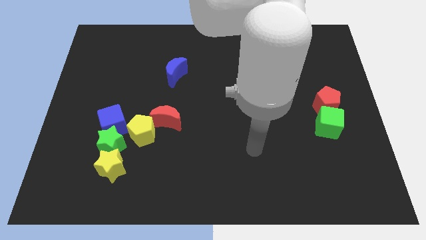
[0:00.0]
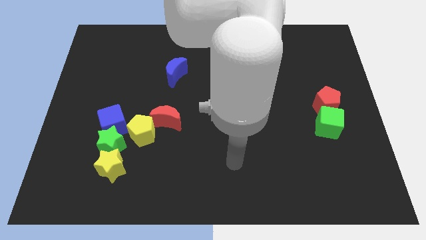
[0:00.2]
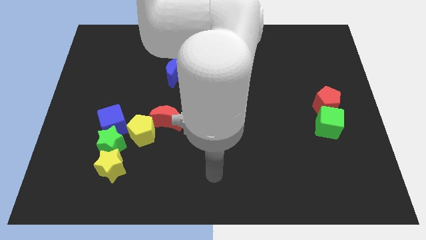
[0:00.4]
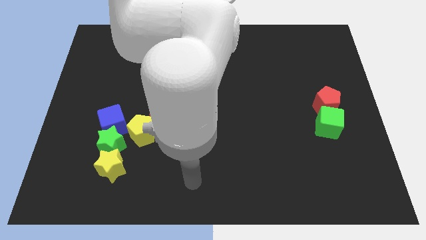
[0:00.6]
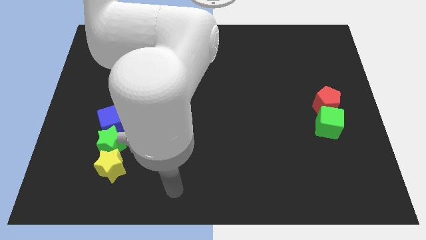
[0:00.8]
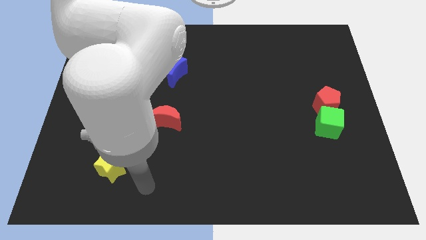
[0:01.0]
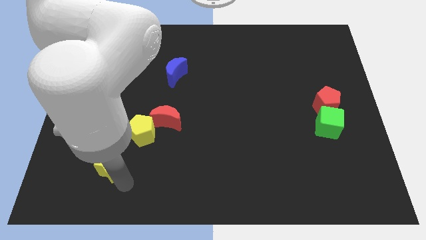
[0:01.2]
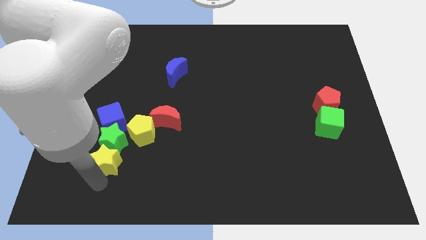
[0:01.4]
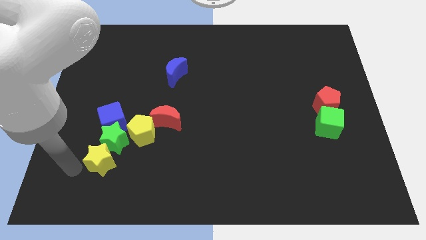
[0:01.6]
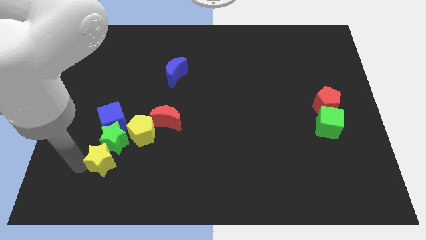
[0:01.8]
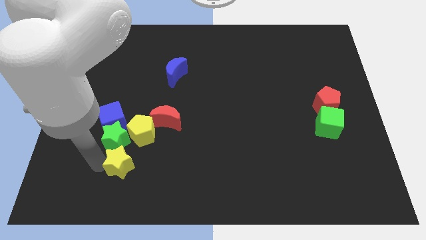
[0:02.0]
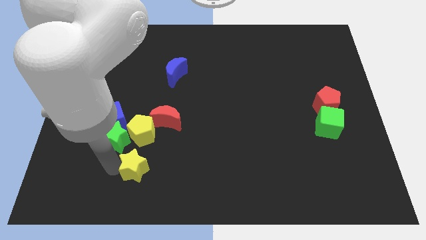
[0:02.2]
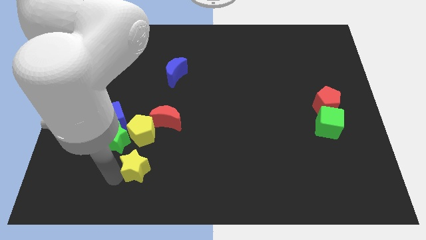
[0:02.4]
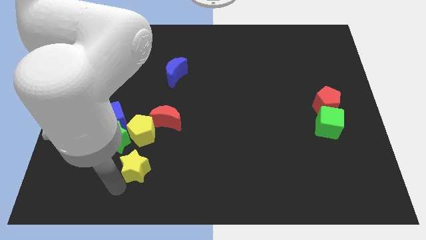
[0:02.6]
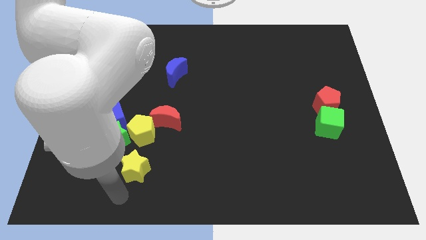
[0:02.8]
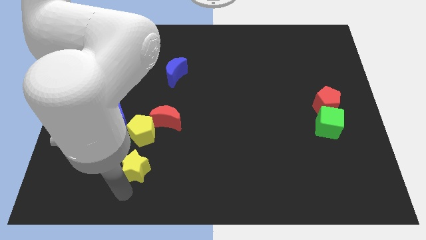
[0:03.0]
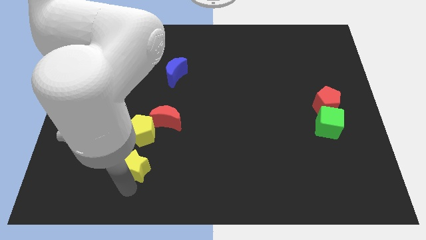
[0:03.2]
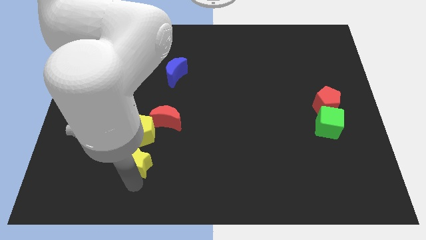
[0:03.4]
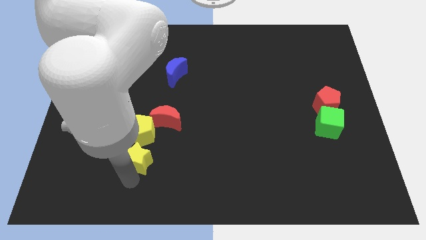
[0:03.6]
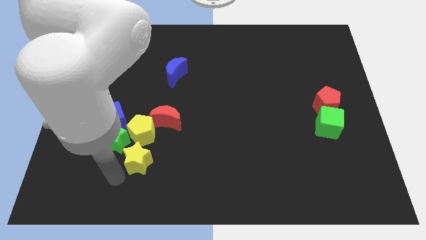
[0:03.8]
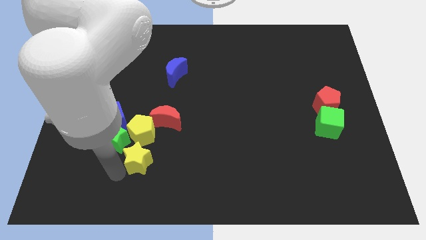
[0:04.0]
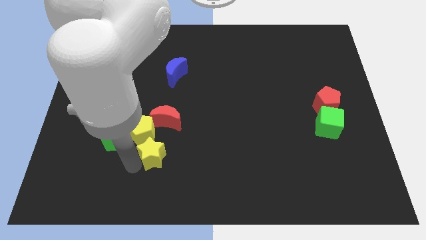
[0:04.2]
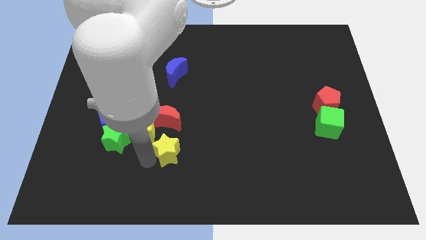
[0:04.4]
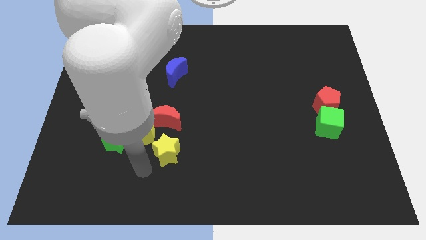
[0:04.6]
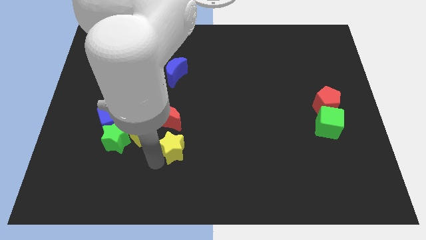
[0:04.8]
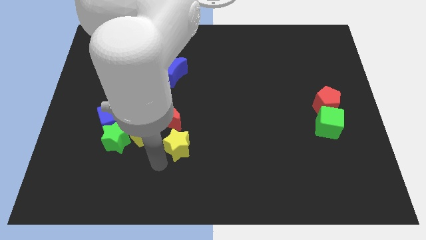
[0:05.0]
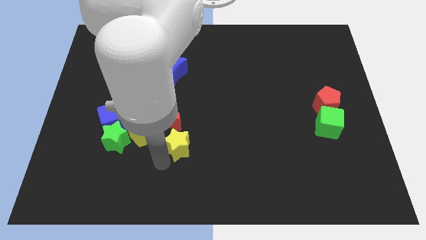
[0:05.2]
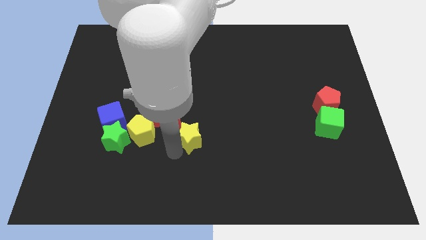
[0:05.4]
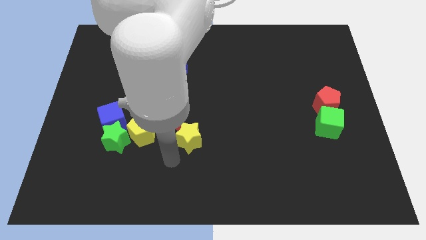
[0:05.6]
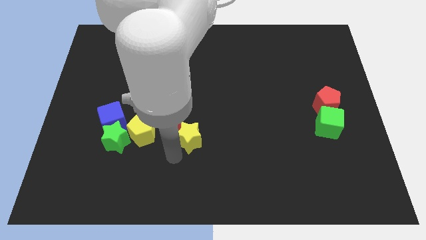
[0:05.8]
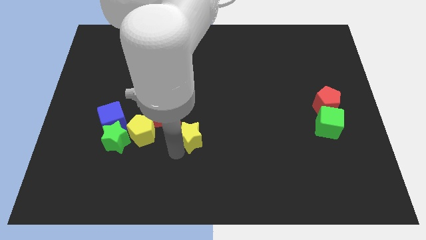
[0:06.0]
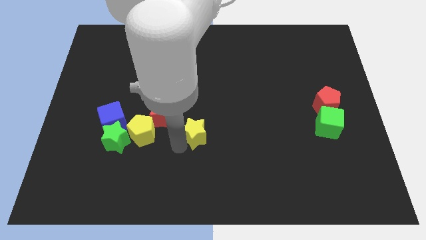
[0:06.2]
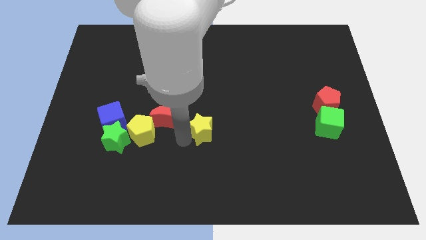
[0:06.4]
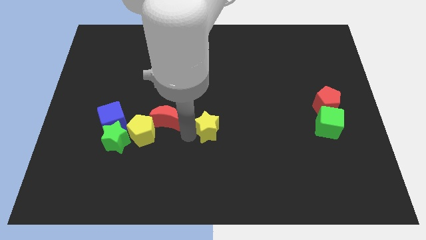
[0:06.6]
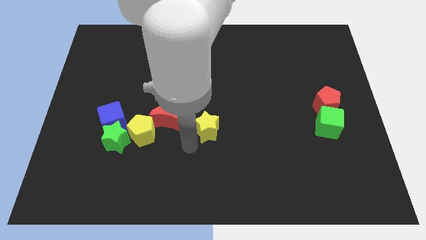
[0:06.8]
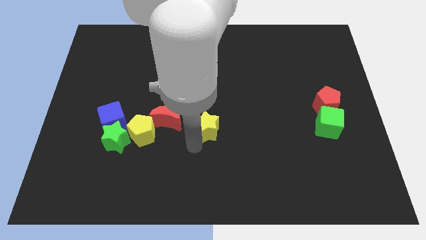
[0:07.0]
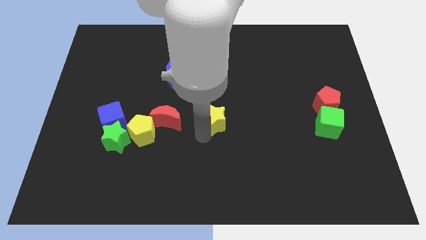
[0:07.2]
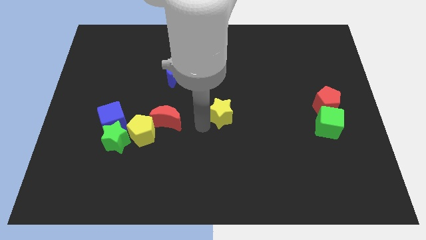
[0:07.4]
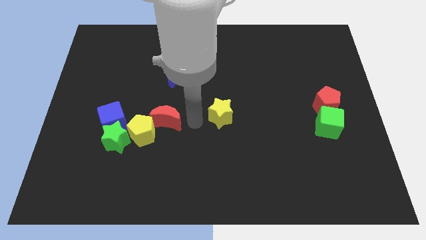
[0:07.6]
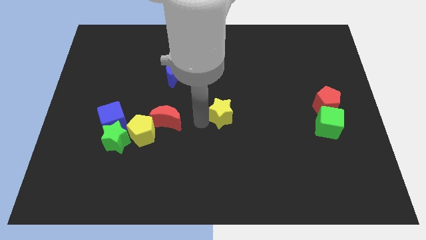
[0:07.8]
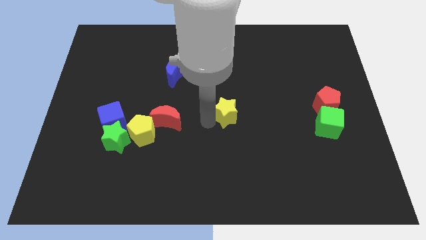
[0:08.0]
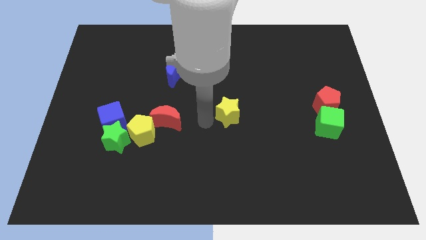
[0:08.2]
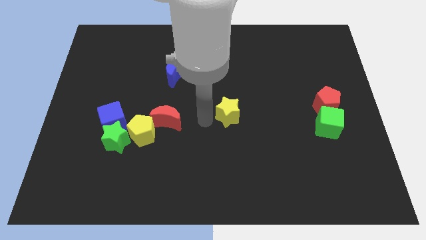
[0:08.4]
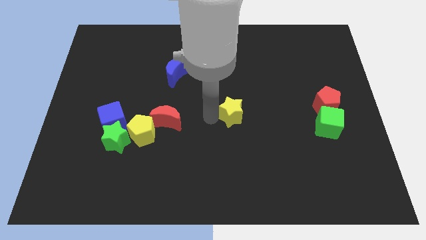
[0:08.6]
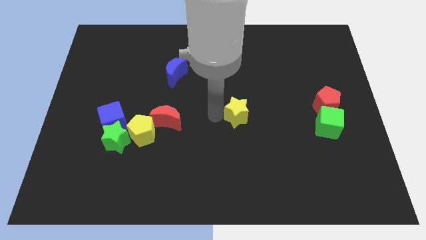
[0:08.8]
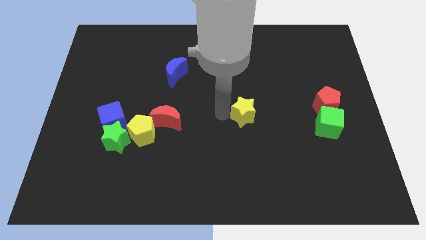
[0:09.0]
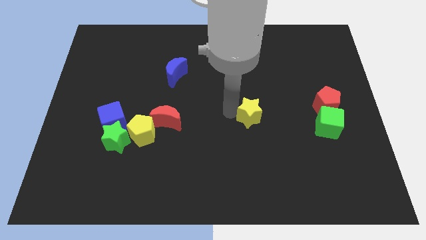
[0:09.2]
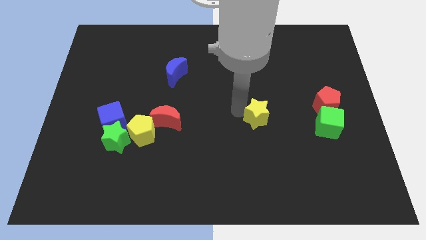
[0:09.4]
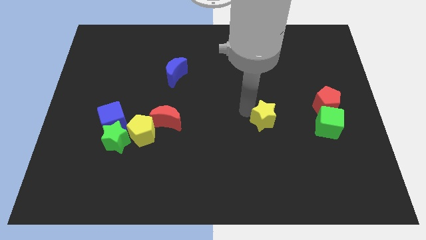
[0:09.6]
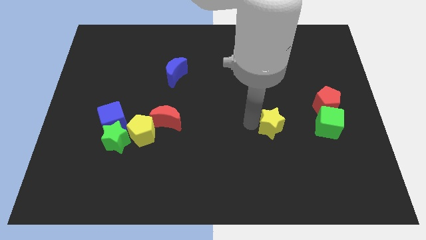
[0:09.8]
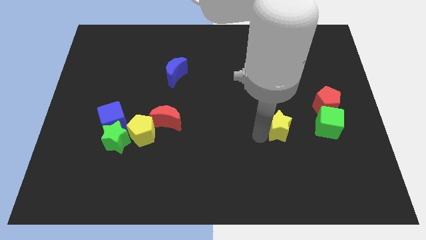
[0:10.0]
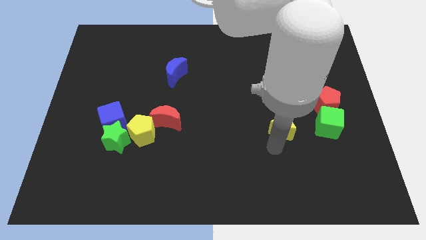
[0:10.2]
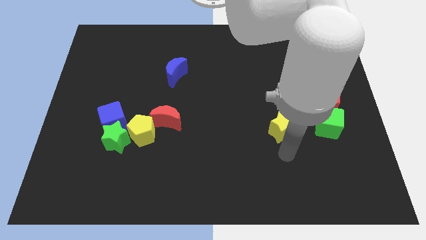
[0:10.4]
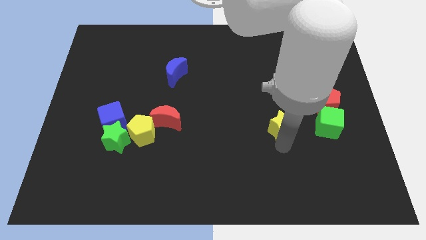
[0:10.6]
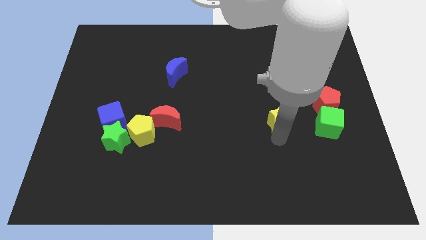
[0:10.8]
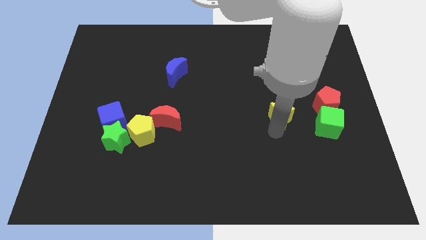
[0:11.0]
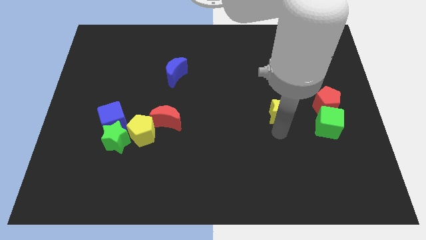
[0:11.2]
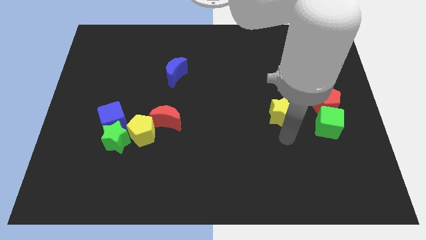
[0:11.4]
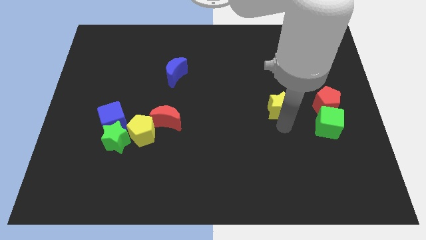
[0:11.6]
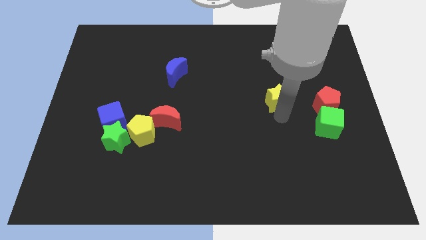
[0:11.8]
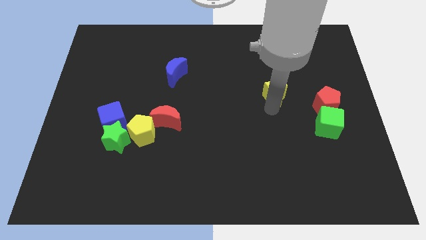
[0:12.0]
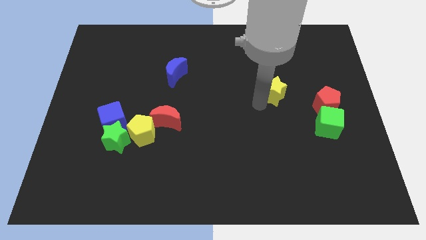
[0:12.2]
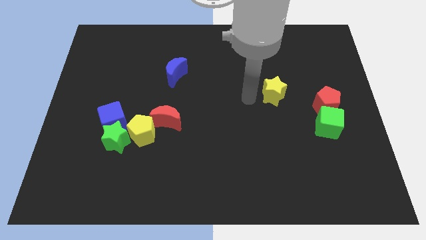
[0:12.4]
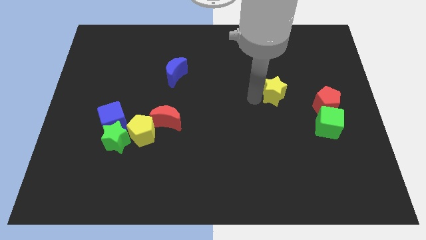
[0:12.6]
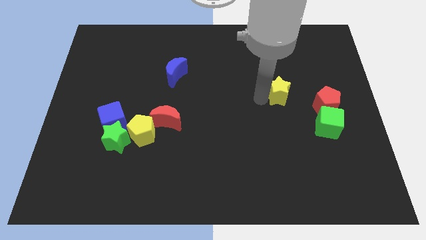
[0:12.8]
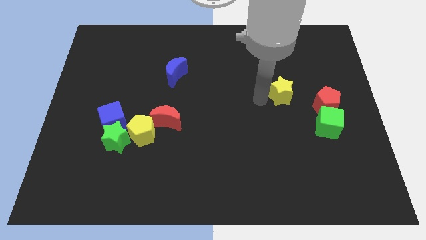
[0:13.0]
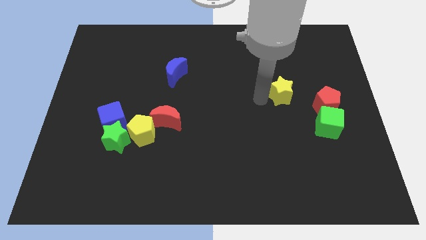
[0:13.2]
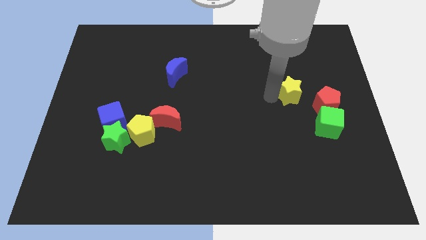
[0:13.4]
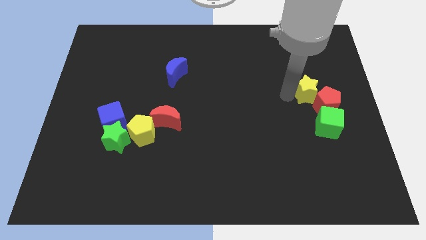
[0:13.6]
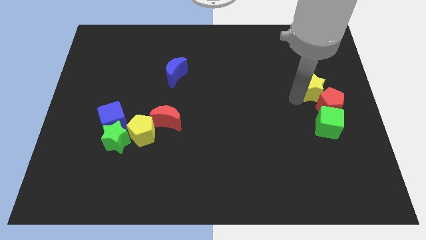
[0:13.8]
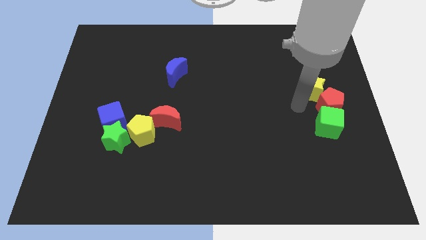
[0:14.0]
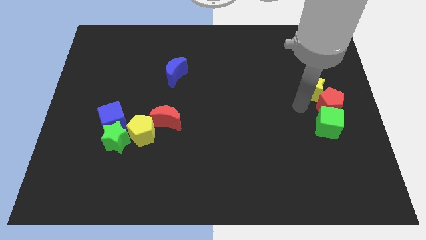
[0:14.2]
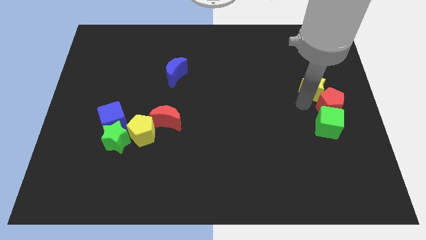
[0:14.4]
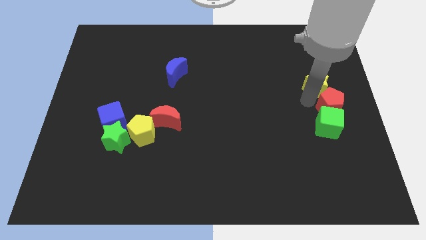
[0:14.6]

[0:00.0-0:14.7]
move the yellow star to the right side

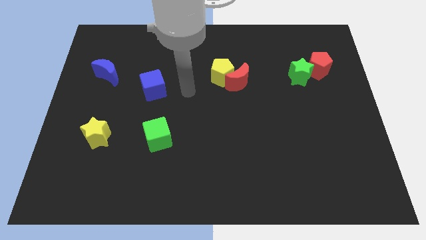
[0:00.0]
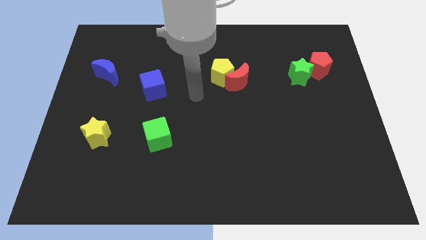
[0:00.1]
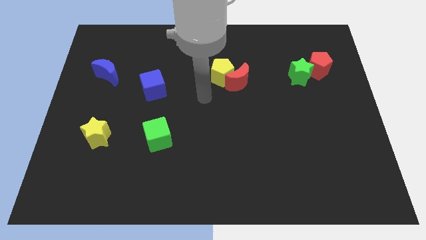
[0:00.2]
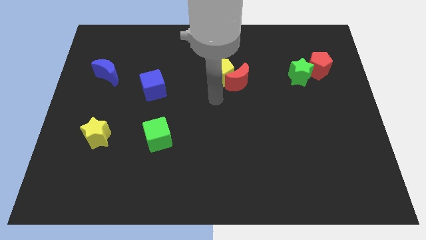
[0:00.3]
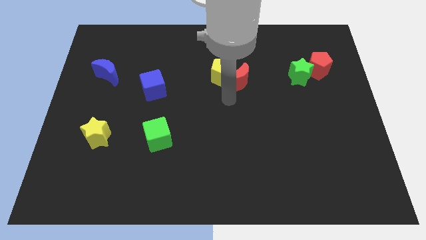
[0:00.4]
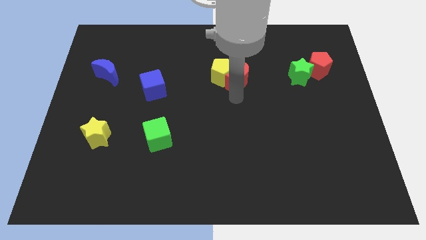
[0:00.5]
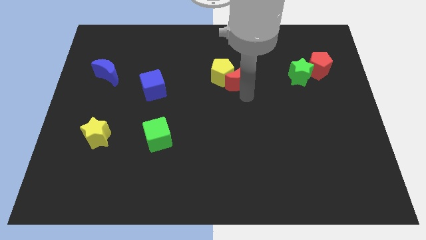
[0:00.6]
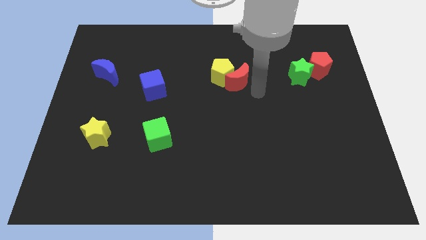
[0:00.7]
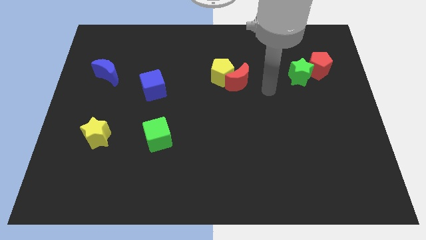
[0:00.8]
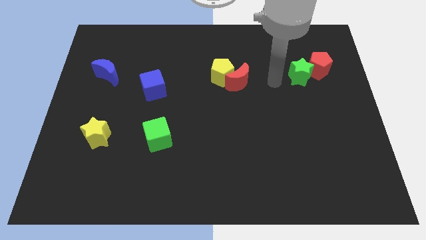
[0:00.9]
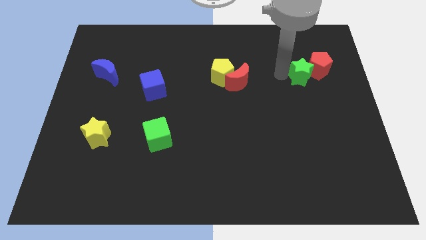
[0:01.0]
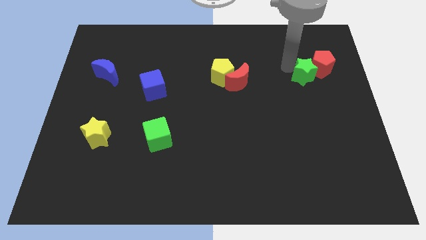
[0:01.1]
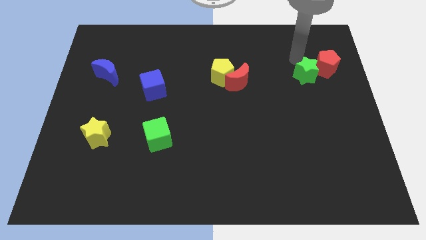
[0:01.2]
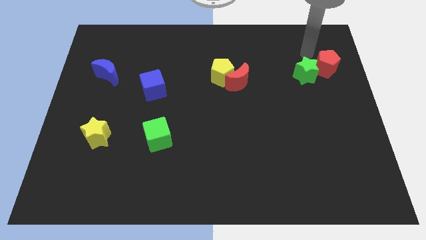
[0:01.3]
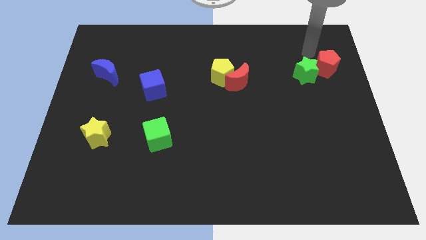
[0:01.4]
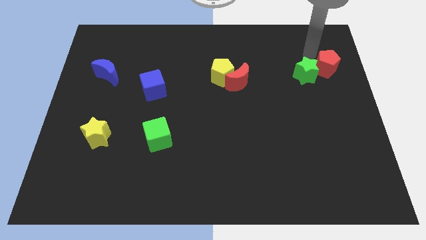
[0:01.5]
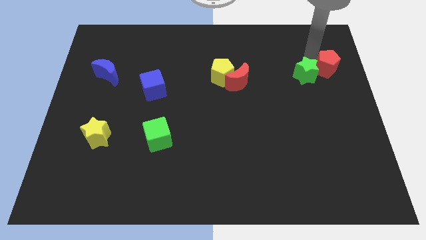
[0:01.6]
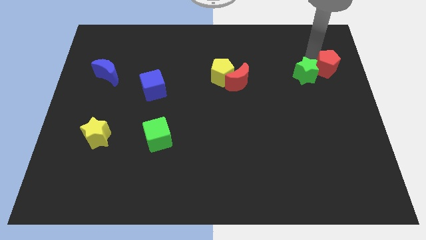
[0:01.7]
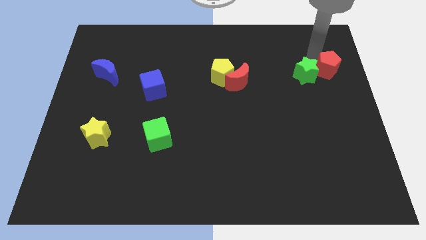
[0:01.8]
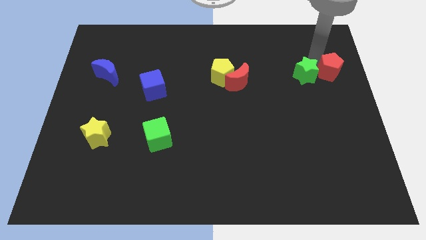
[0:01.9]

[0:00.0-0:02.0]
push the red pentagon to the right side of the board
